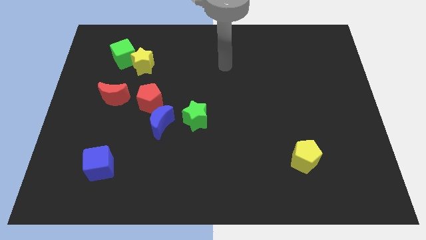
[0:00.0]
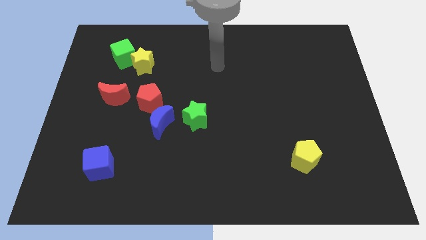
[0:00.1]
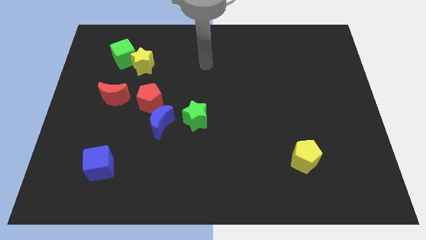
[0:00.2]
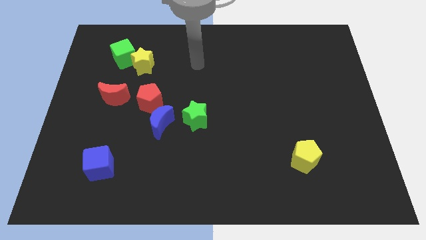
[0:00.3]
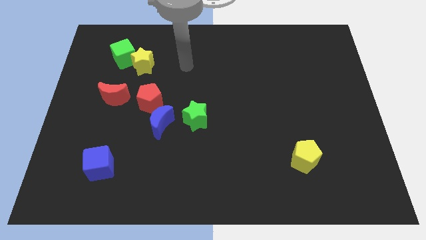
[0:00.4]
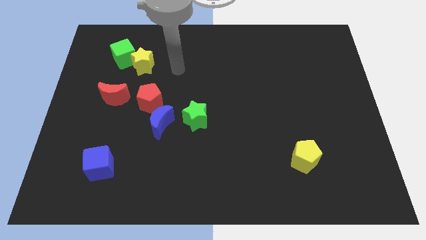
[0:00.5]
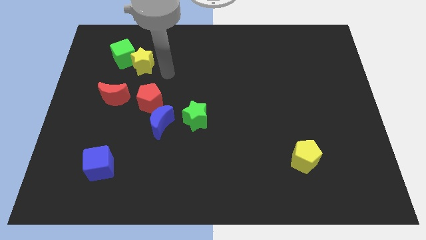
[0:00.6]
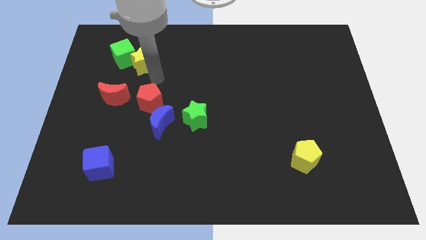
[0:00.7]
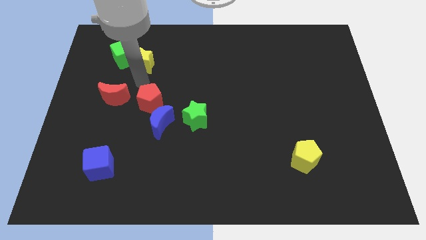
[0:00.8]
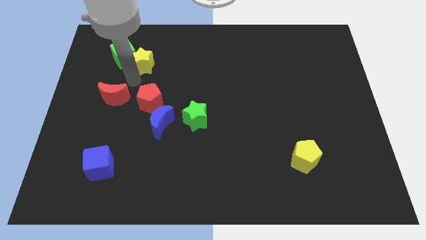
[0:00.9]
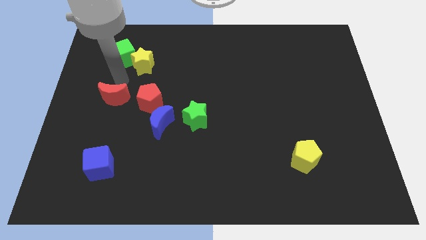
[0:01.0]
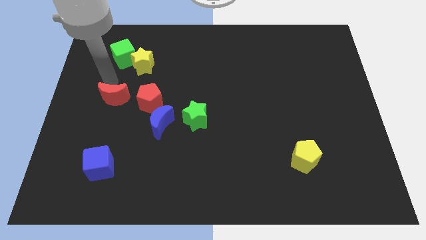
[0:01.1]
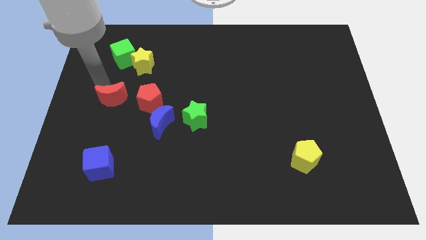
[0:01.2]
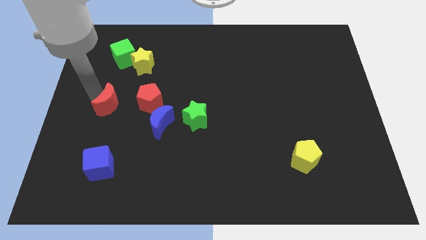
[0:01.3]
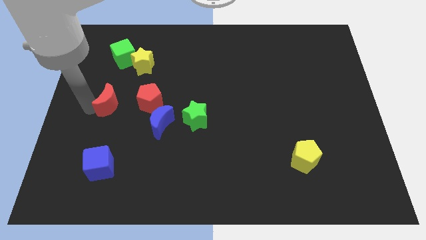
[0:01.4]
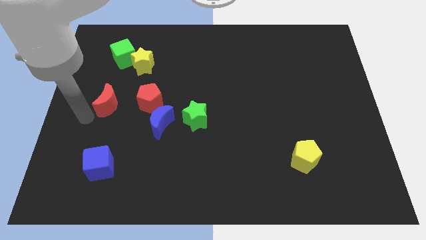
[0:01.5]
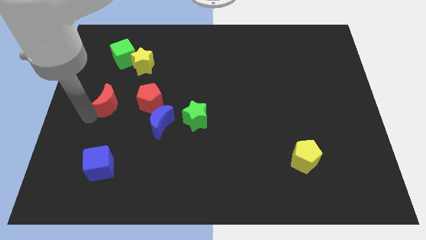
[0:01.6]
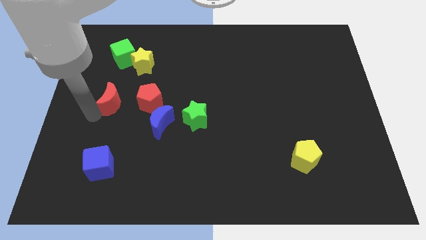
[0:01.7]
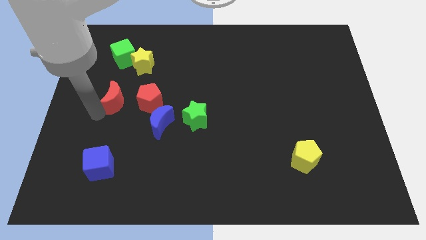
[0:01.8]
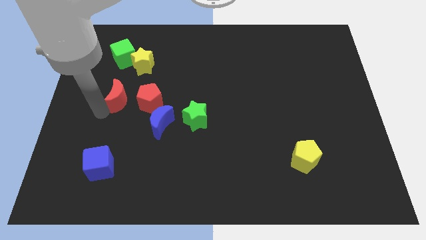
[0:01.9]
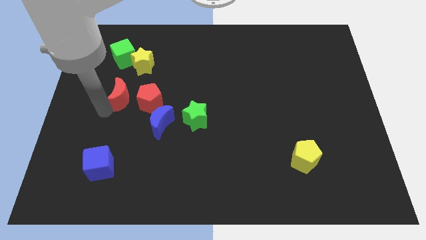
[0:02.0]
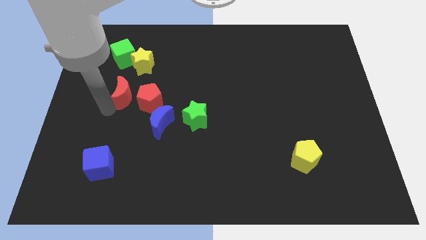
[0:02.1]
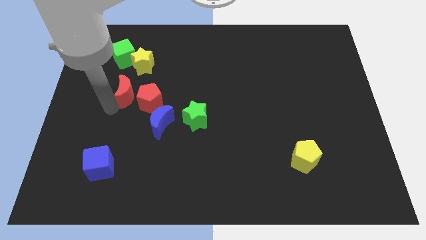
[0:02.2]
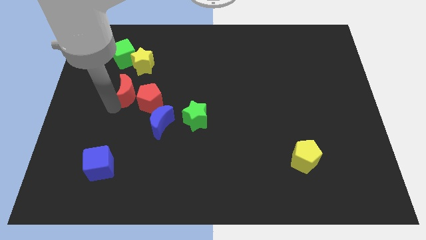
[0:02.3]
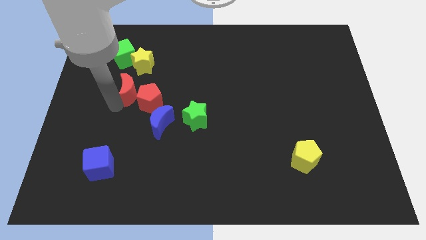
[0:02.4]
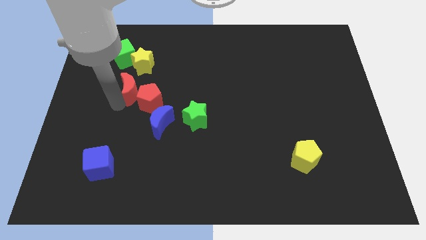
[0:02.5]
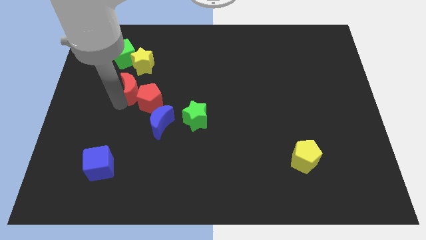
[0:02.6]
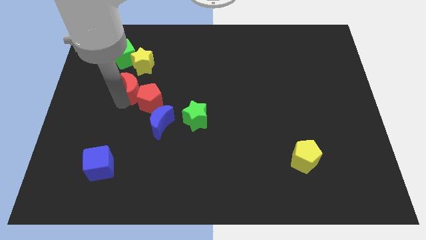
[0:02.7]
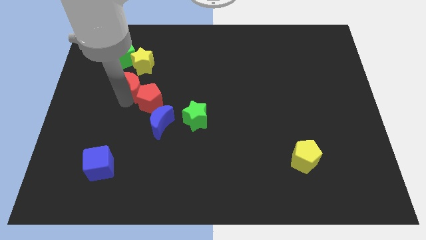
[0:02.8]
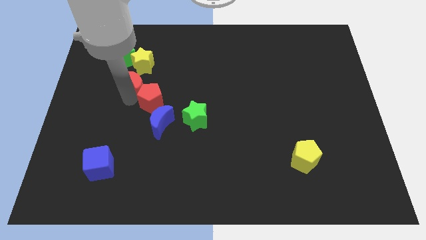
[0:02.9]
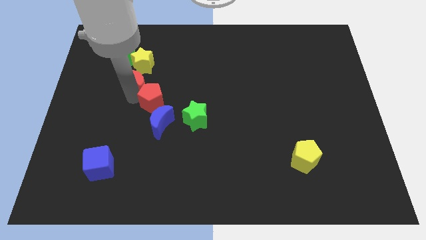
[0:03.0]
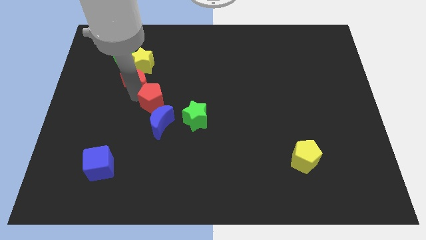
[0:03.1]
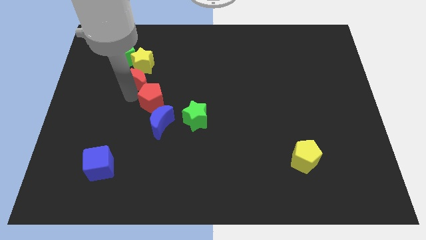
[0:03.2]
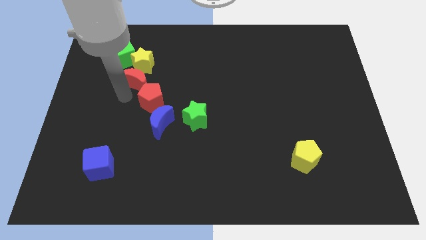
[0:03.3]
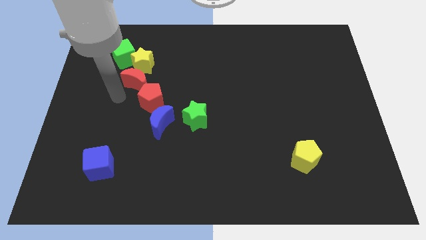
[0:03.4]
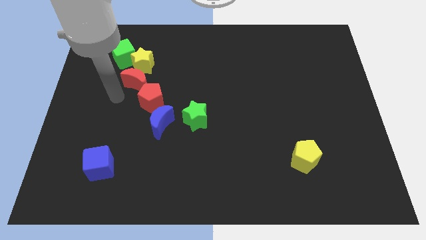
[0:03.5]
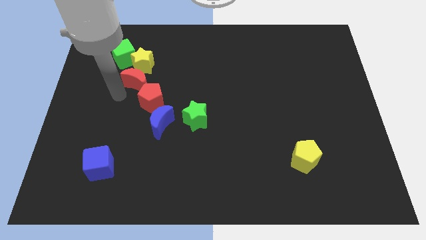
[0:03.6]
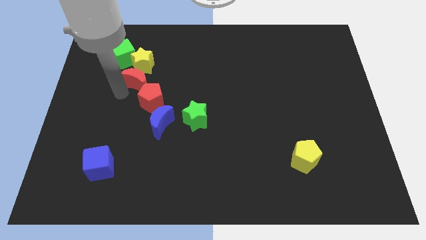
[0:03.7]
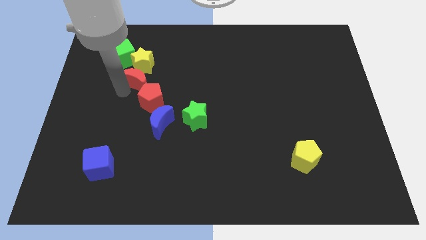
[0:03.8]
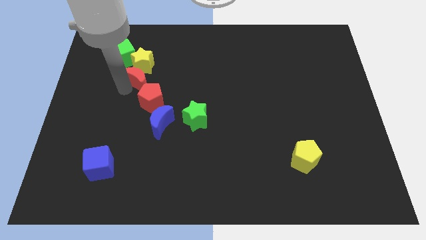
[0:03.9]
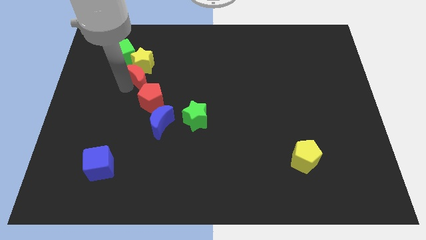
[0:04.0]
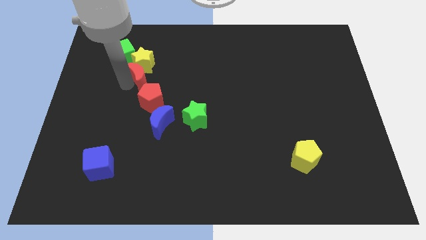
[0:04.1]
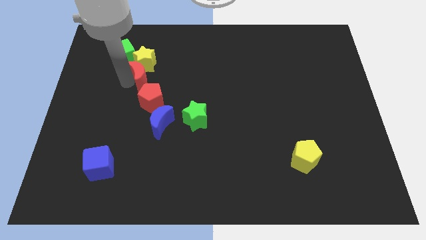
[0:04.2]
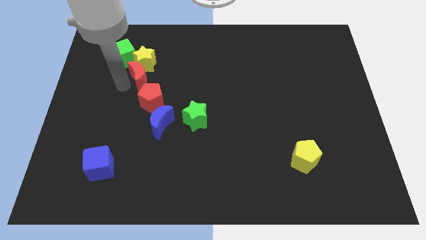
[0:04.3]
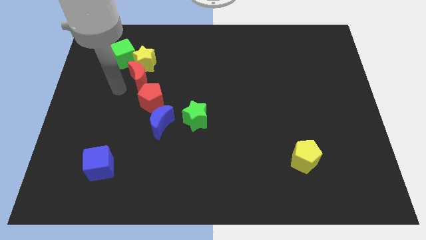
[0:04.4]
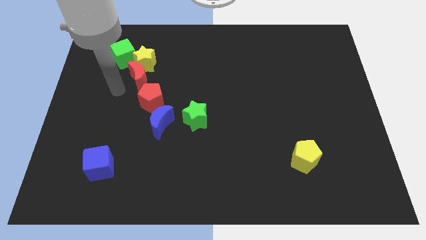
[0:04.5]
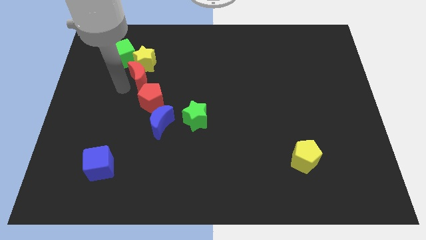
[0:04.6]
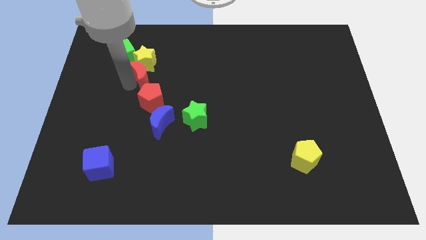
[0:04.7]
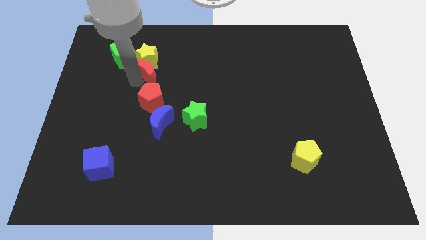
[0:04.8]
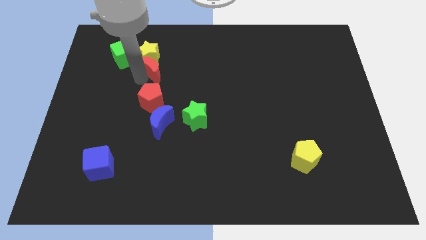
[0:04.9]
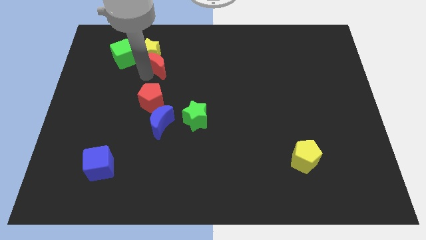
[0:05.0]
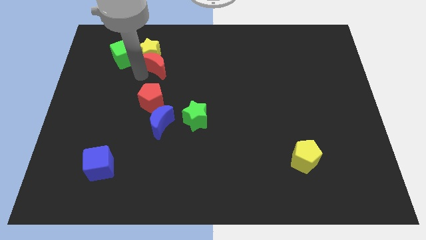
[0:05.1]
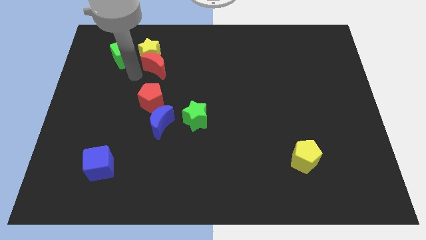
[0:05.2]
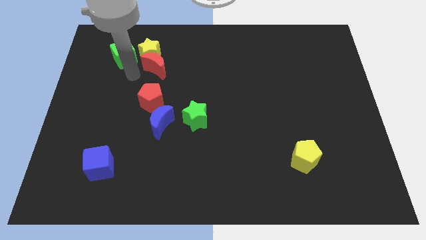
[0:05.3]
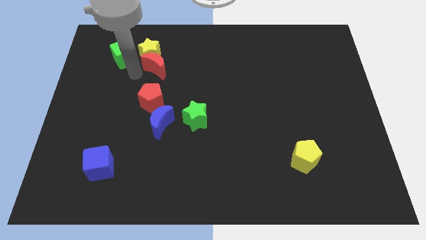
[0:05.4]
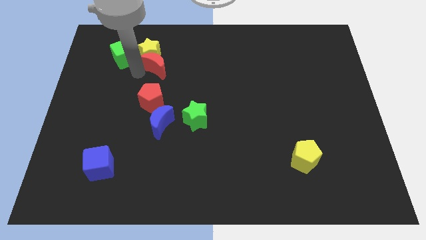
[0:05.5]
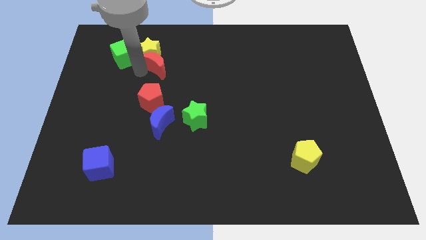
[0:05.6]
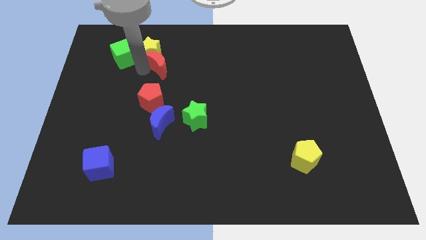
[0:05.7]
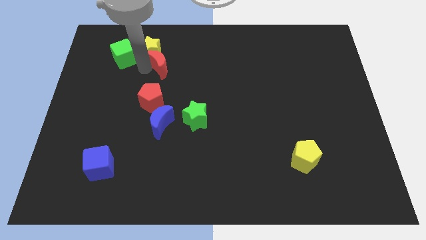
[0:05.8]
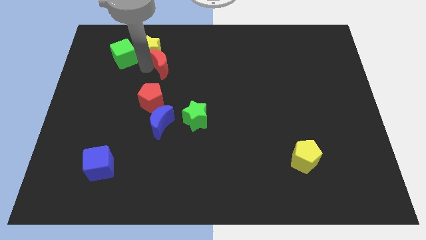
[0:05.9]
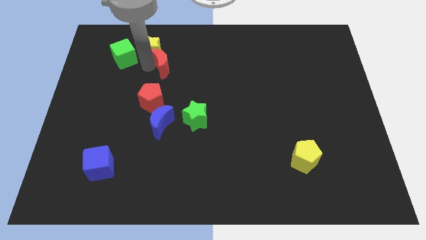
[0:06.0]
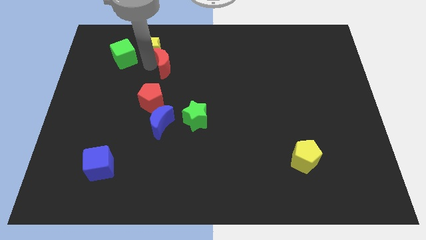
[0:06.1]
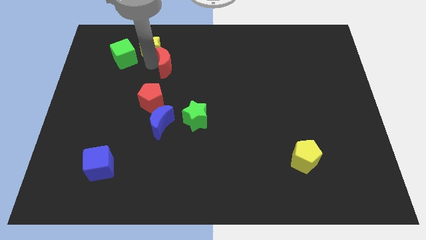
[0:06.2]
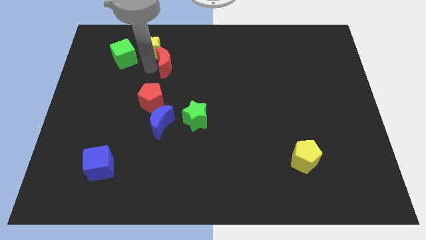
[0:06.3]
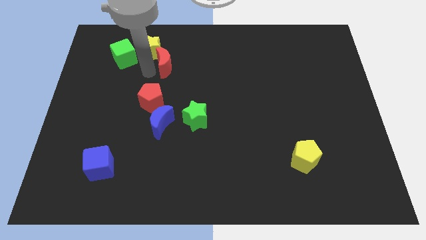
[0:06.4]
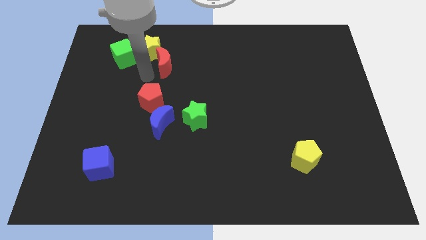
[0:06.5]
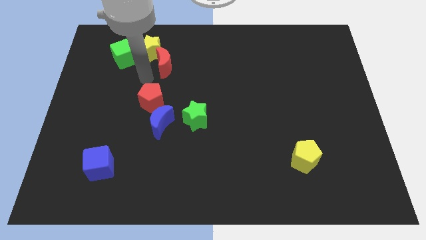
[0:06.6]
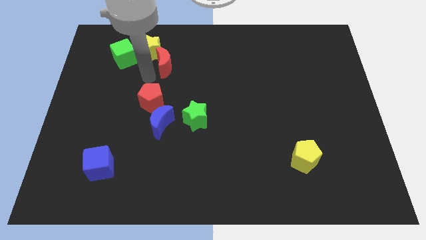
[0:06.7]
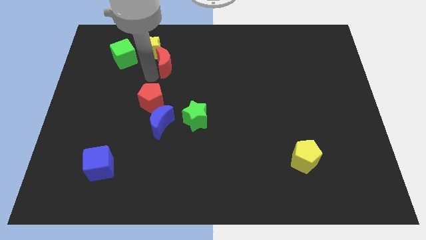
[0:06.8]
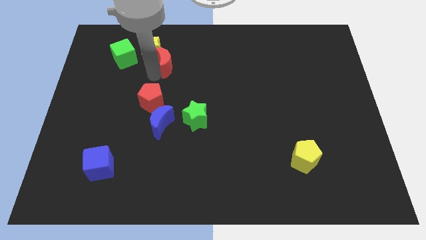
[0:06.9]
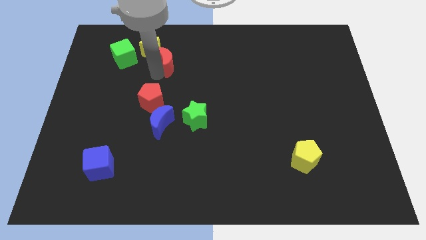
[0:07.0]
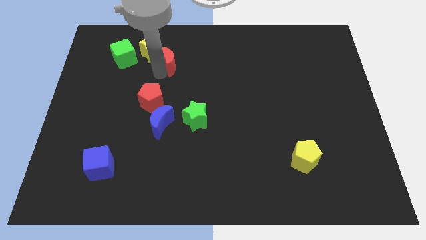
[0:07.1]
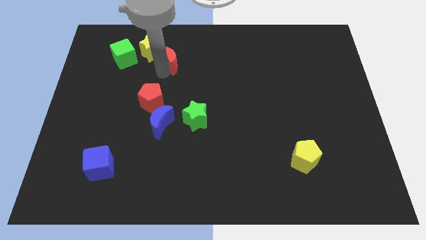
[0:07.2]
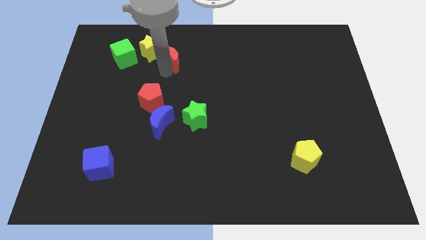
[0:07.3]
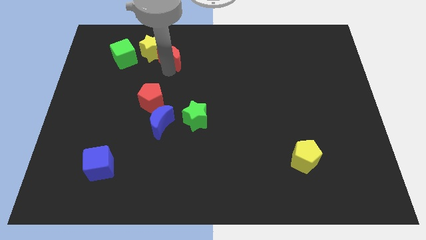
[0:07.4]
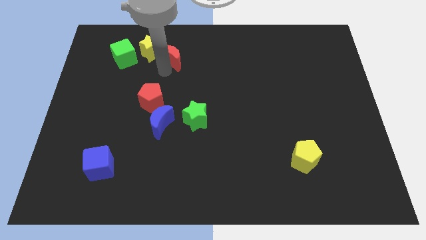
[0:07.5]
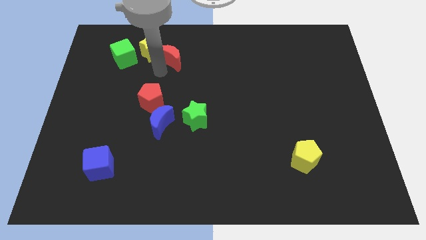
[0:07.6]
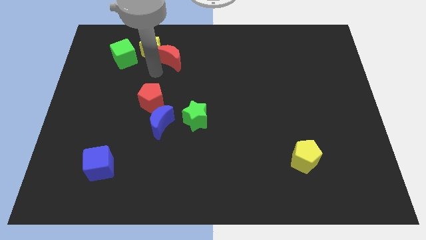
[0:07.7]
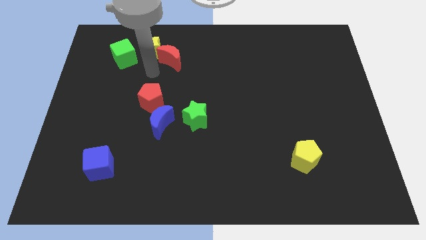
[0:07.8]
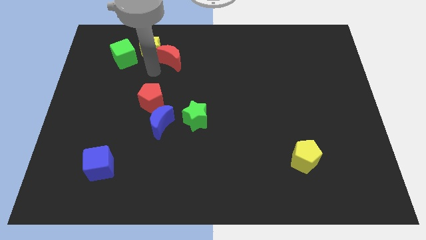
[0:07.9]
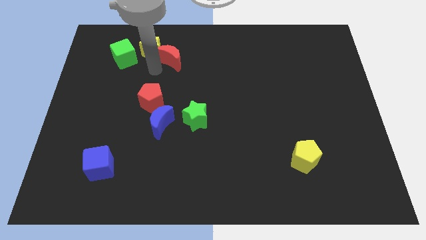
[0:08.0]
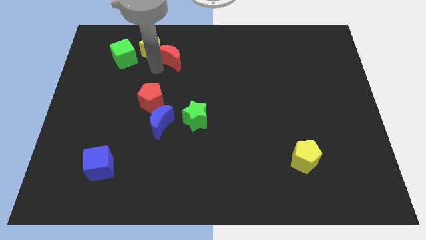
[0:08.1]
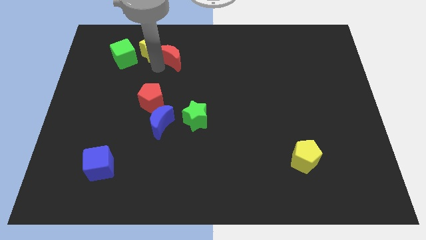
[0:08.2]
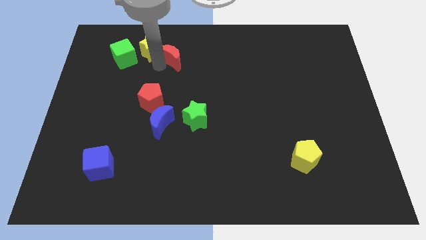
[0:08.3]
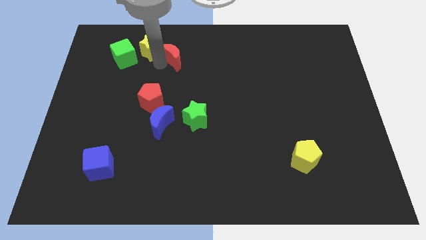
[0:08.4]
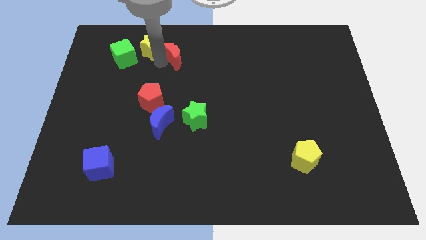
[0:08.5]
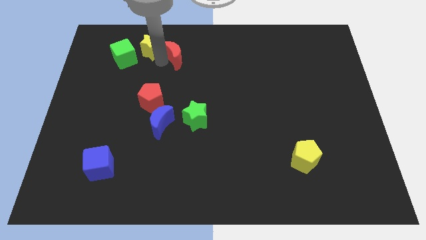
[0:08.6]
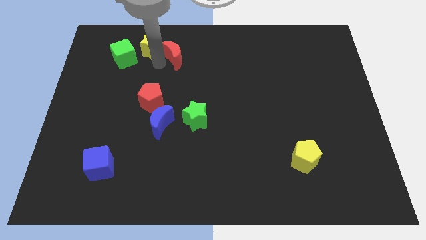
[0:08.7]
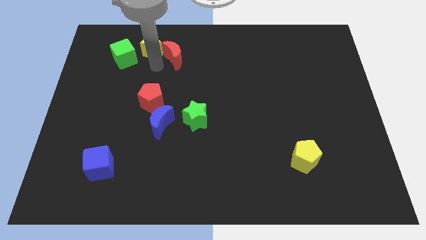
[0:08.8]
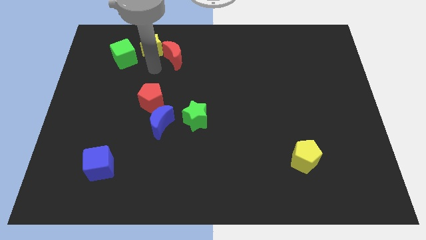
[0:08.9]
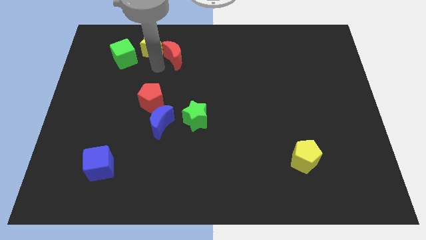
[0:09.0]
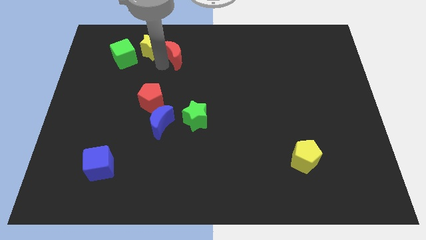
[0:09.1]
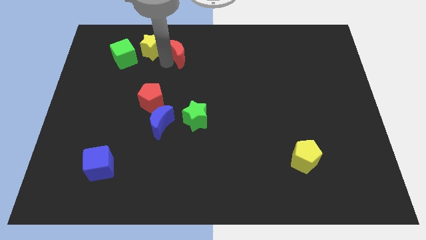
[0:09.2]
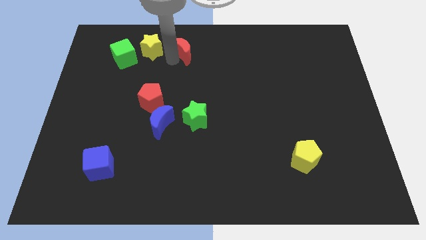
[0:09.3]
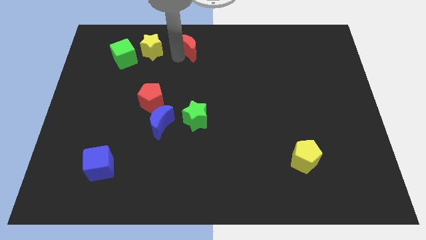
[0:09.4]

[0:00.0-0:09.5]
slide the red moon to the top
